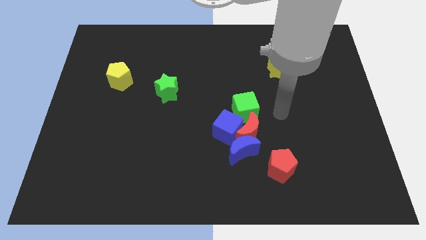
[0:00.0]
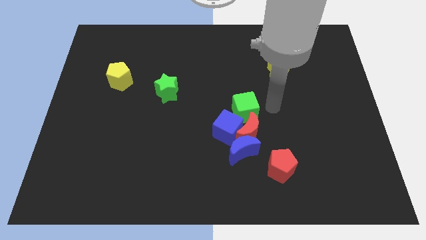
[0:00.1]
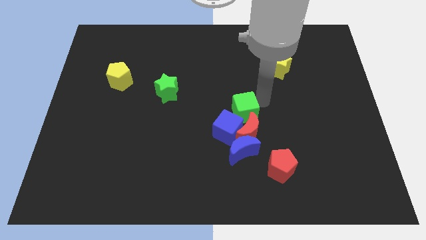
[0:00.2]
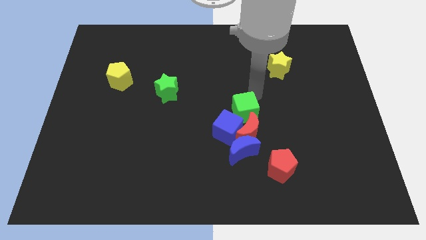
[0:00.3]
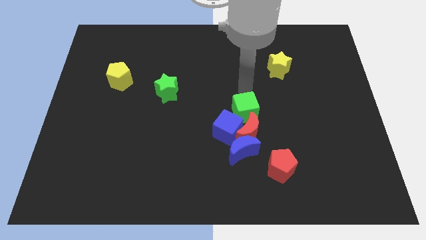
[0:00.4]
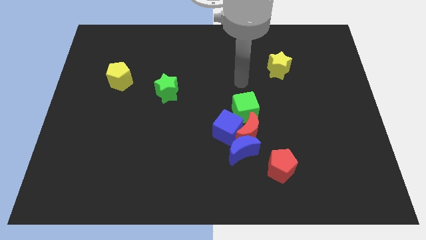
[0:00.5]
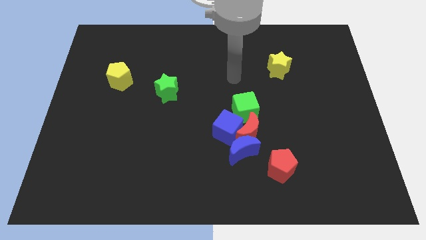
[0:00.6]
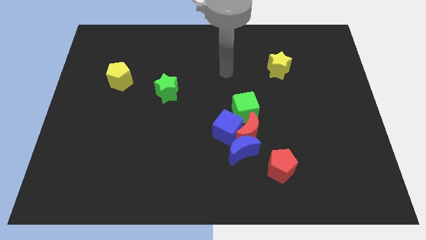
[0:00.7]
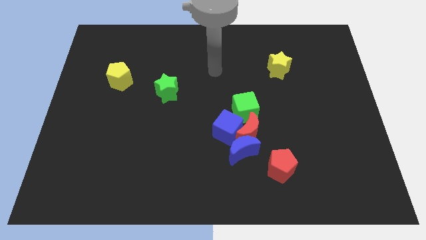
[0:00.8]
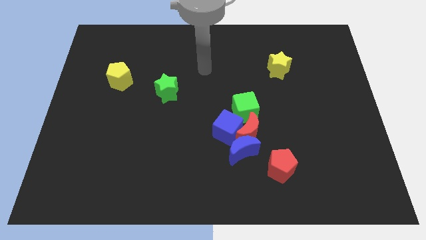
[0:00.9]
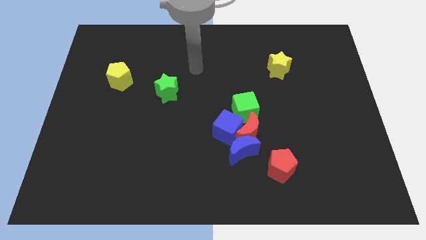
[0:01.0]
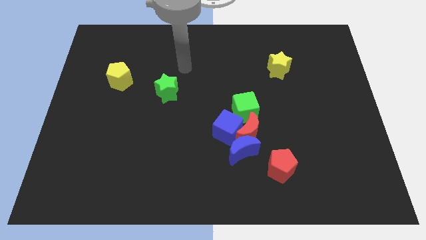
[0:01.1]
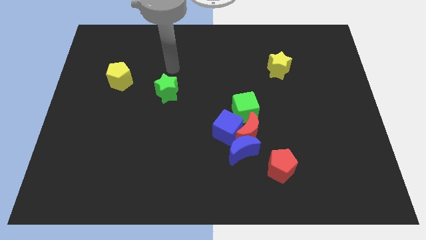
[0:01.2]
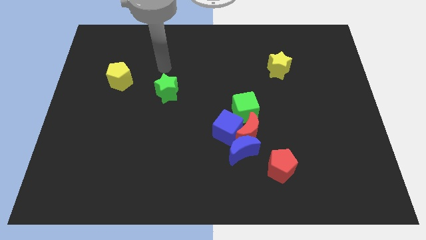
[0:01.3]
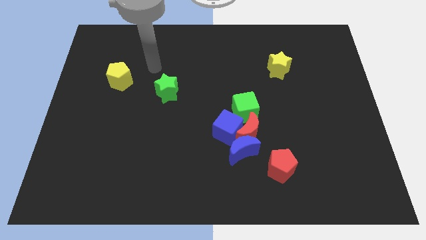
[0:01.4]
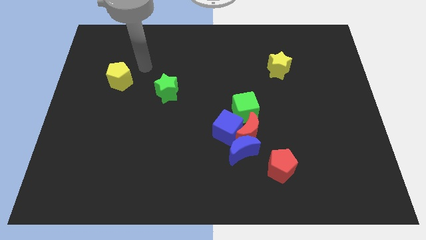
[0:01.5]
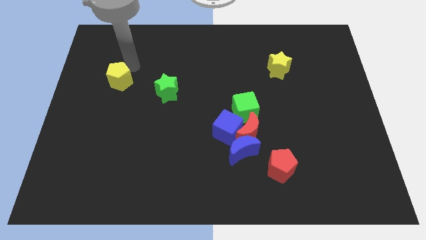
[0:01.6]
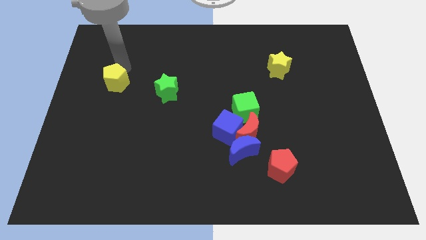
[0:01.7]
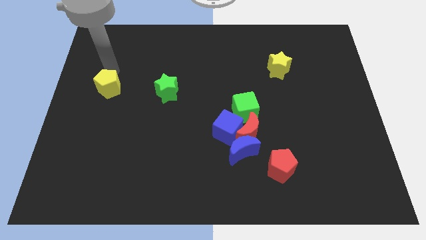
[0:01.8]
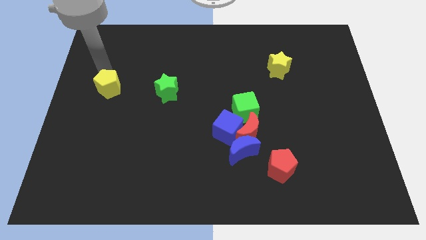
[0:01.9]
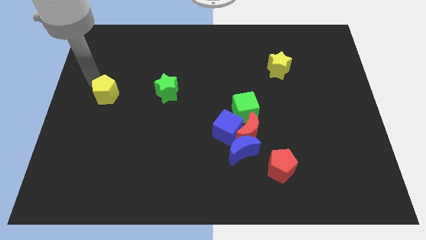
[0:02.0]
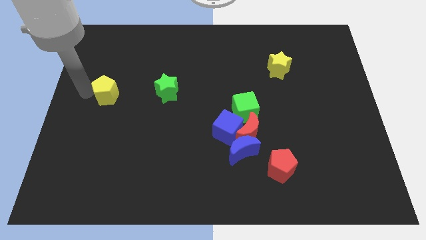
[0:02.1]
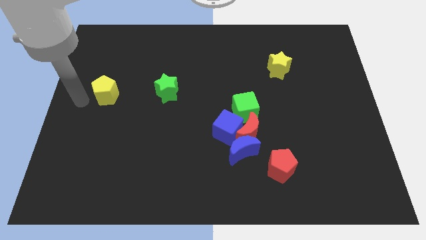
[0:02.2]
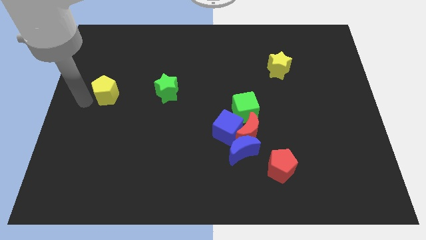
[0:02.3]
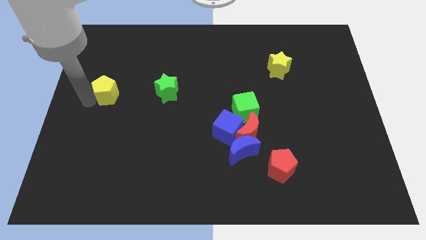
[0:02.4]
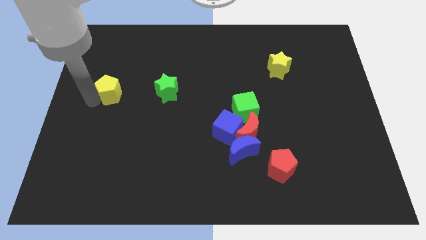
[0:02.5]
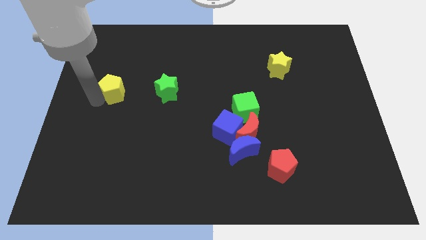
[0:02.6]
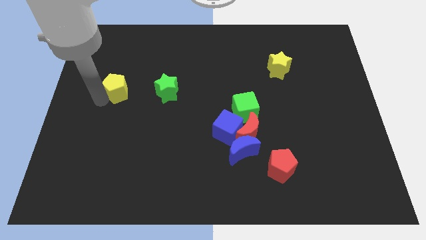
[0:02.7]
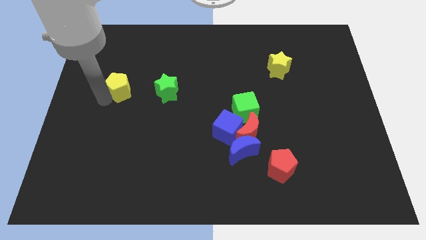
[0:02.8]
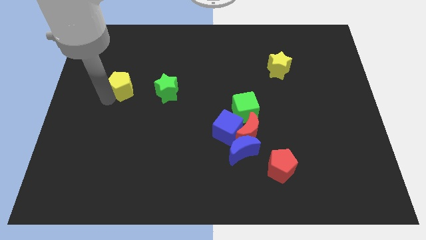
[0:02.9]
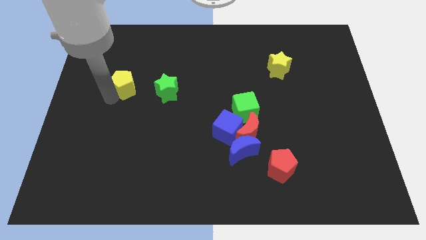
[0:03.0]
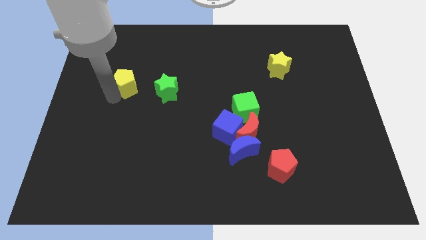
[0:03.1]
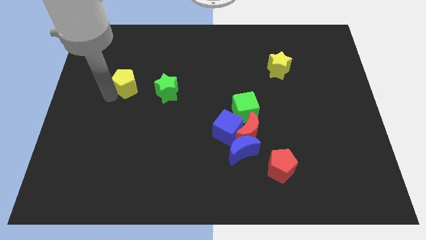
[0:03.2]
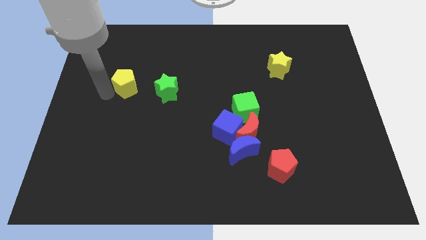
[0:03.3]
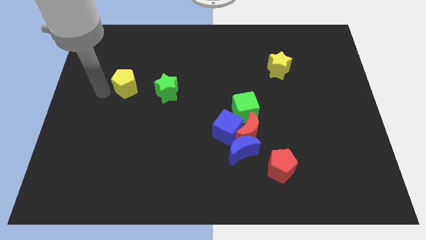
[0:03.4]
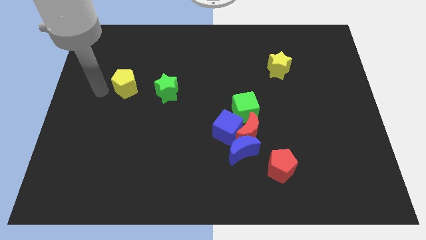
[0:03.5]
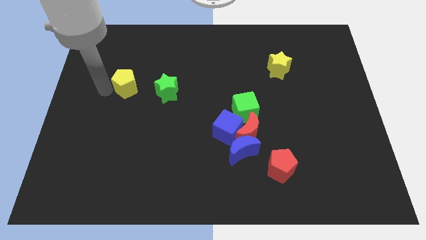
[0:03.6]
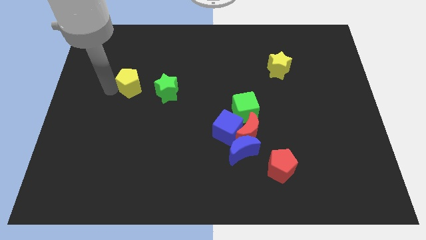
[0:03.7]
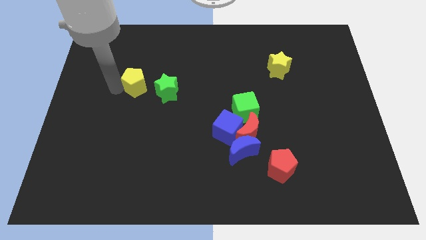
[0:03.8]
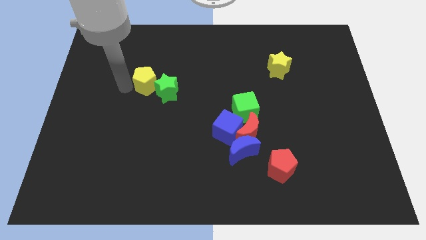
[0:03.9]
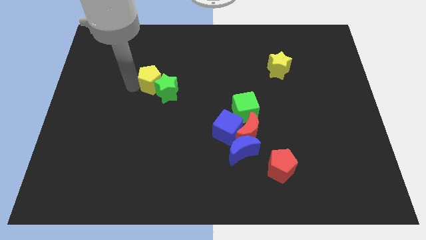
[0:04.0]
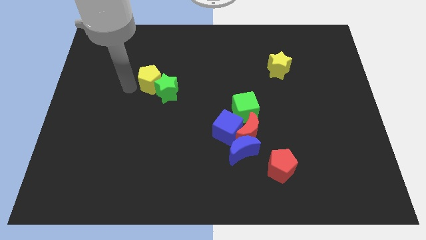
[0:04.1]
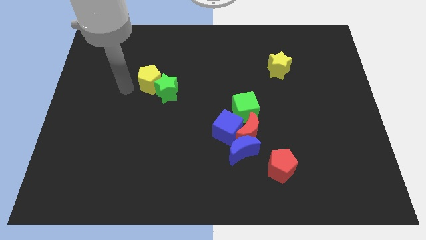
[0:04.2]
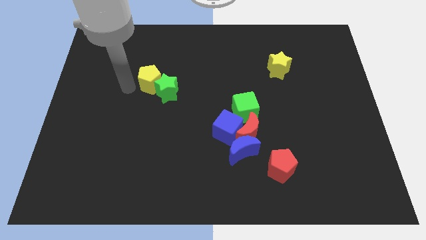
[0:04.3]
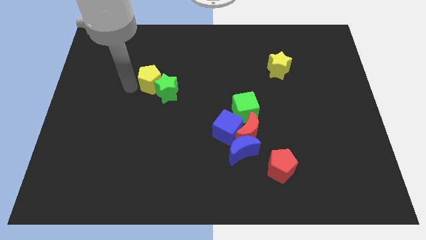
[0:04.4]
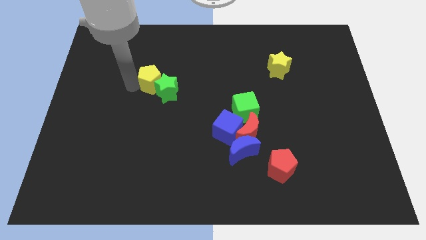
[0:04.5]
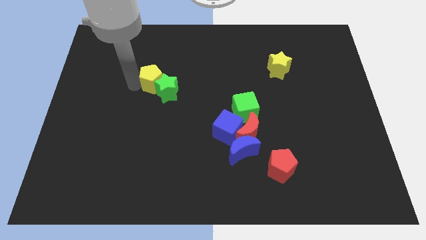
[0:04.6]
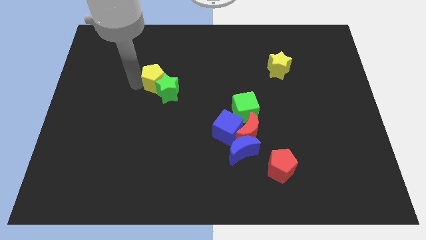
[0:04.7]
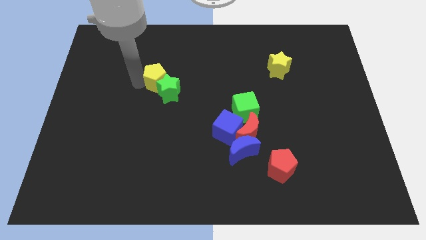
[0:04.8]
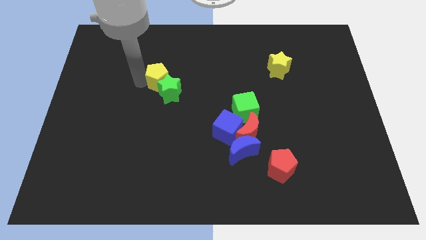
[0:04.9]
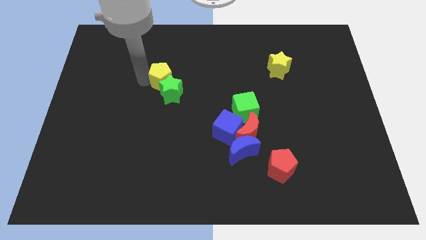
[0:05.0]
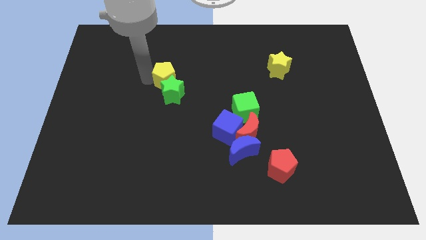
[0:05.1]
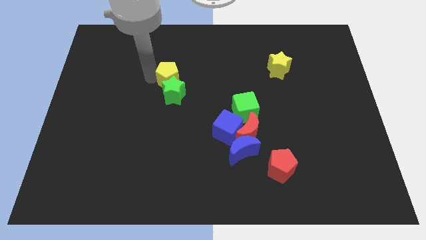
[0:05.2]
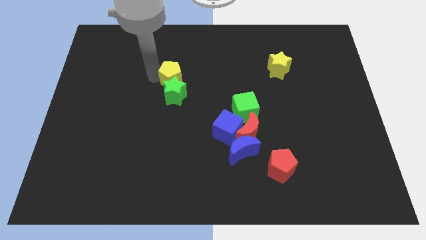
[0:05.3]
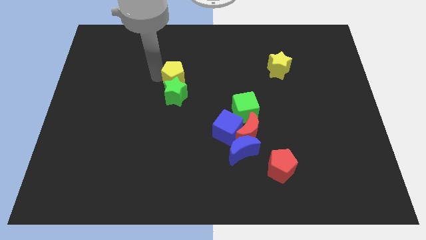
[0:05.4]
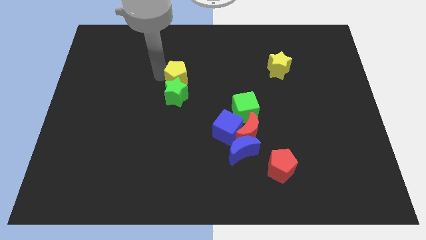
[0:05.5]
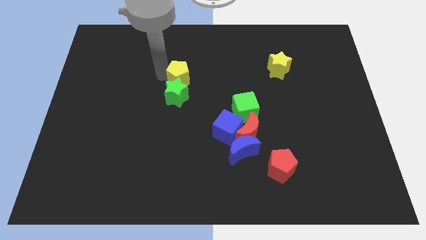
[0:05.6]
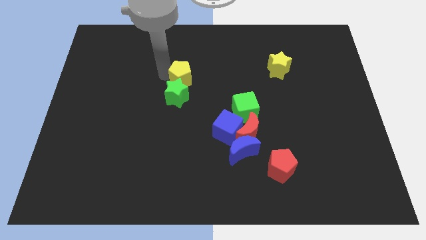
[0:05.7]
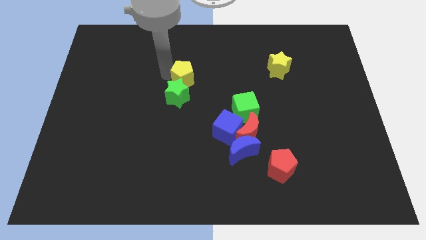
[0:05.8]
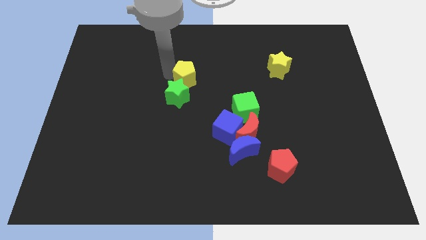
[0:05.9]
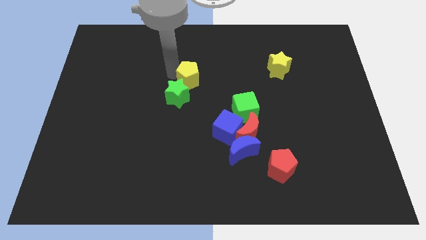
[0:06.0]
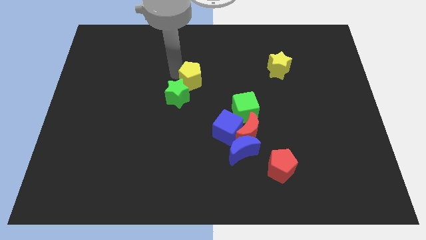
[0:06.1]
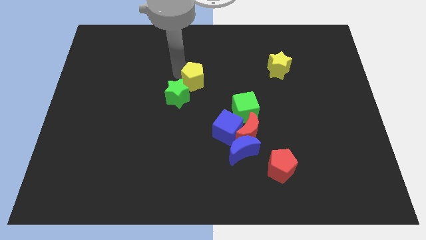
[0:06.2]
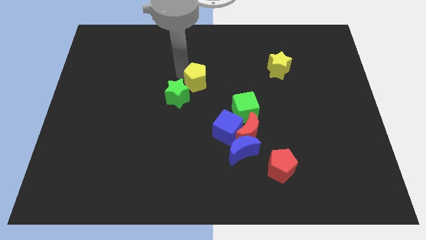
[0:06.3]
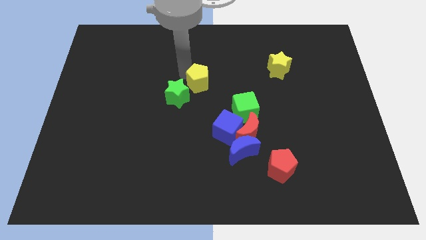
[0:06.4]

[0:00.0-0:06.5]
push the yellow pentagon to the right

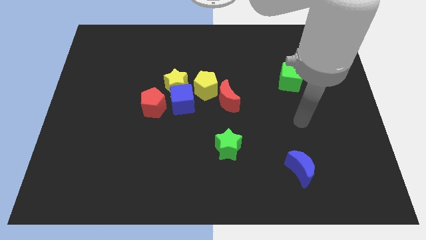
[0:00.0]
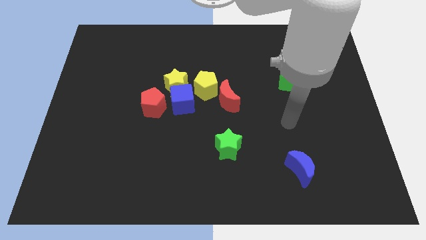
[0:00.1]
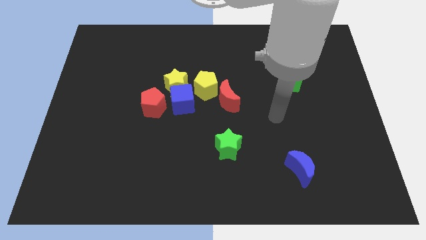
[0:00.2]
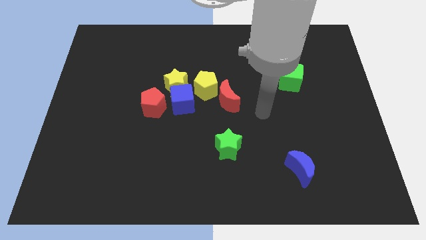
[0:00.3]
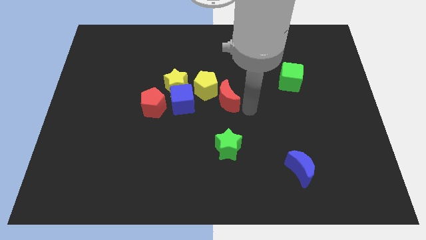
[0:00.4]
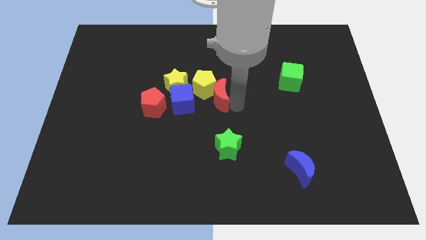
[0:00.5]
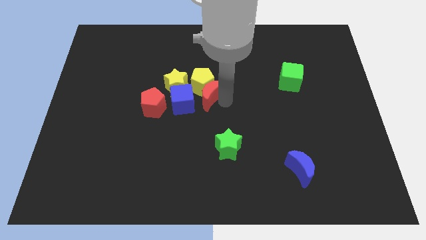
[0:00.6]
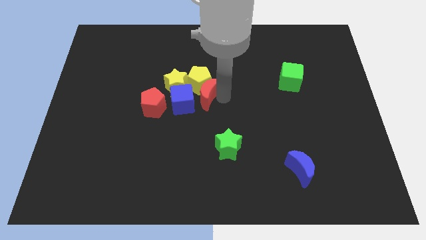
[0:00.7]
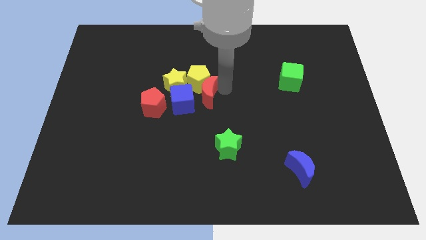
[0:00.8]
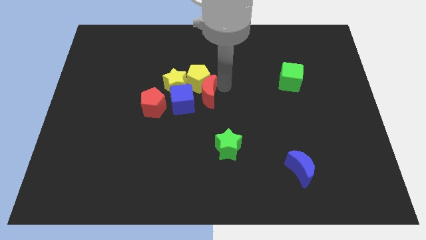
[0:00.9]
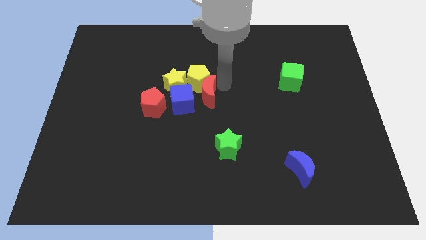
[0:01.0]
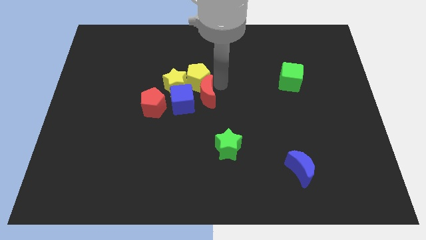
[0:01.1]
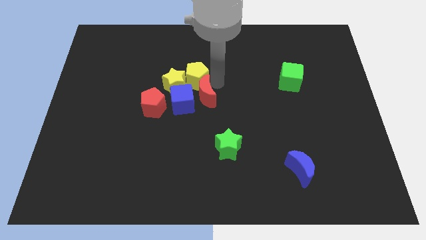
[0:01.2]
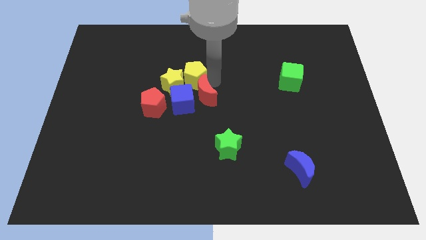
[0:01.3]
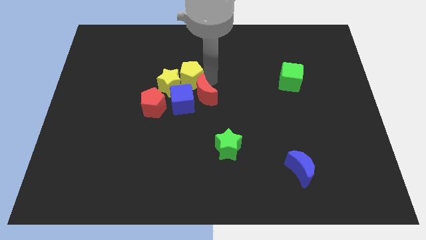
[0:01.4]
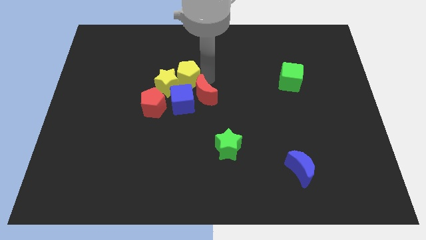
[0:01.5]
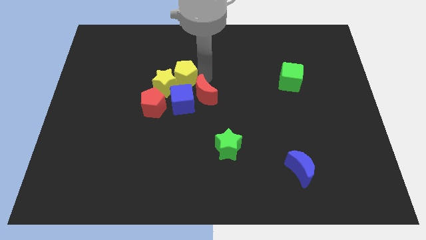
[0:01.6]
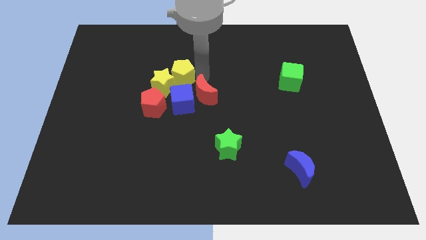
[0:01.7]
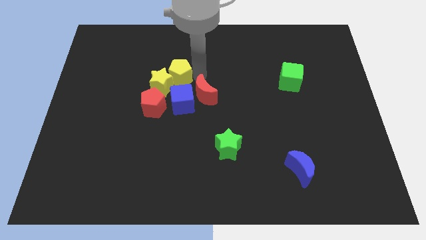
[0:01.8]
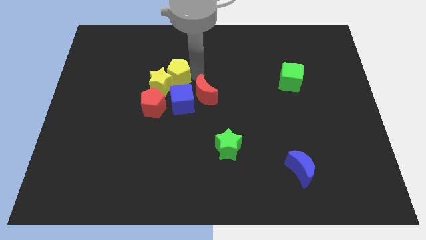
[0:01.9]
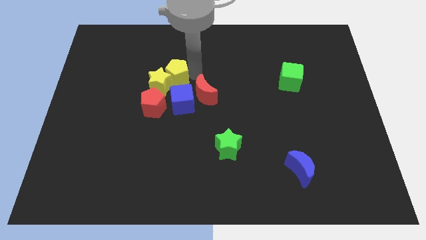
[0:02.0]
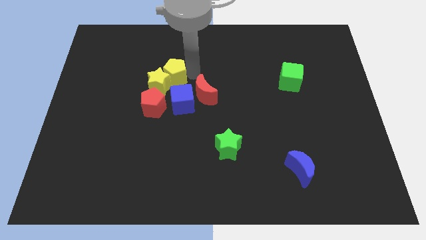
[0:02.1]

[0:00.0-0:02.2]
slightly slide the yellow pentagon left
